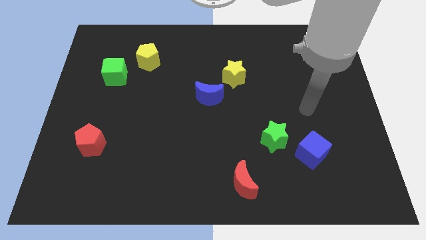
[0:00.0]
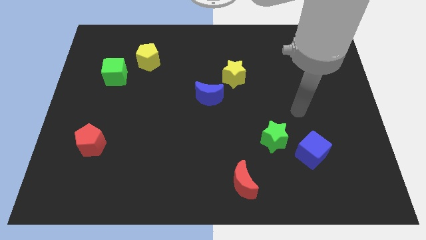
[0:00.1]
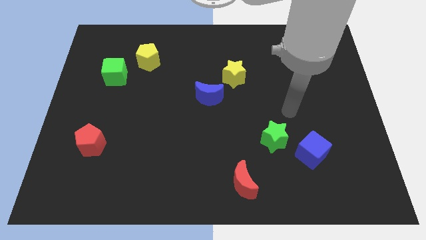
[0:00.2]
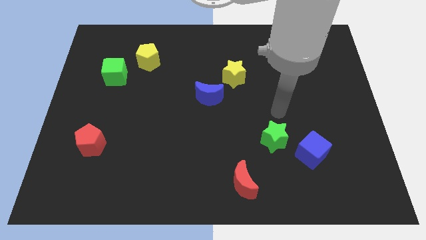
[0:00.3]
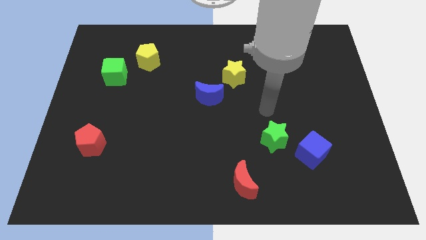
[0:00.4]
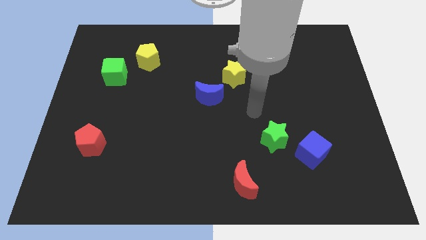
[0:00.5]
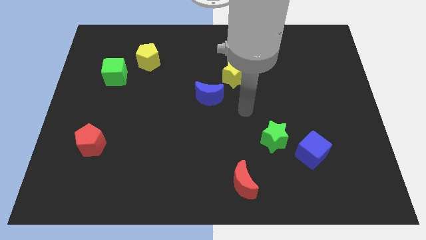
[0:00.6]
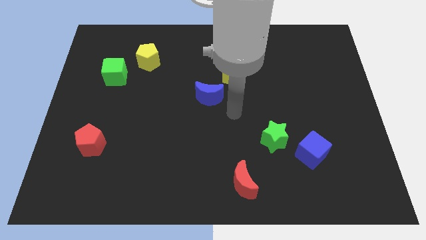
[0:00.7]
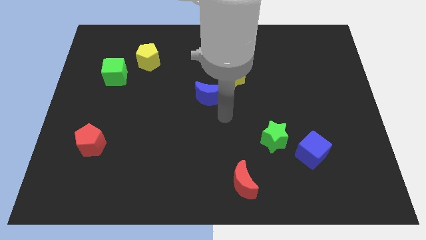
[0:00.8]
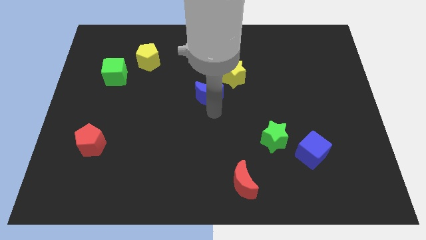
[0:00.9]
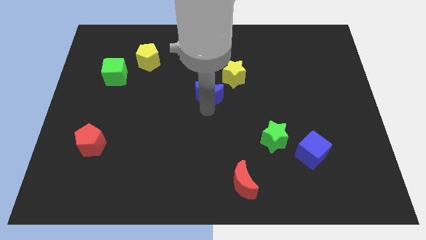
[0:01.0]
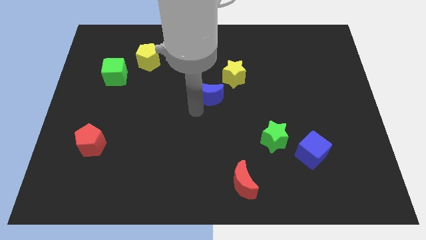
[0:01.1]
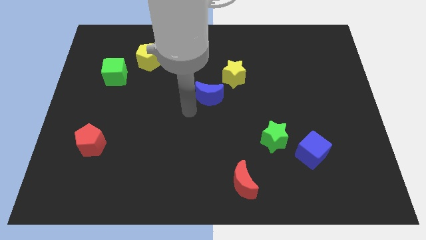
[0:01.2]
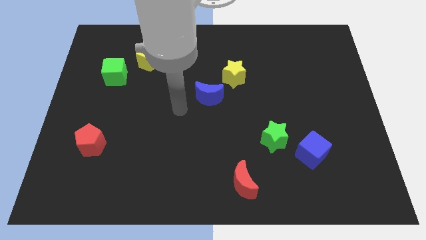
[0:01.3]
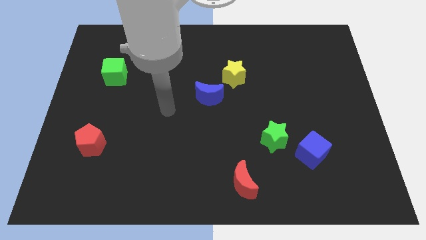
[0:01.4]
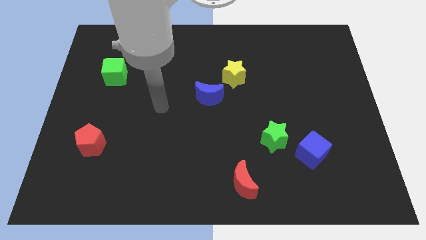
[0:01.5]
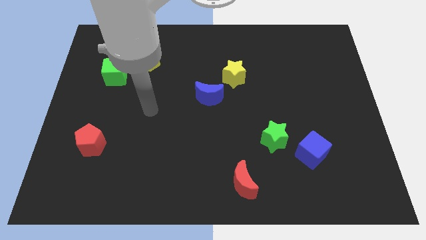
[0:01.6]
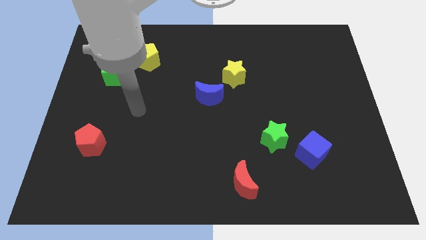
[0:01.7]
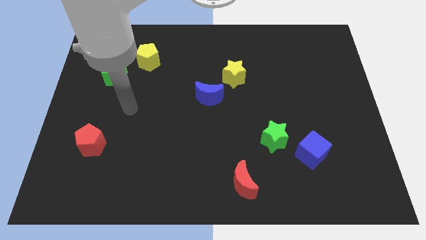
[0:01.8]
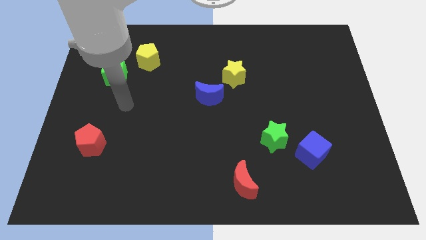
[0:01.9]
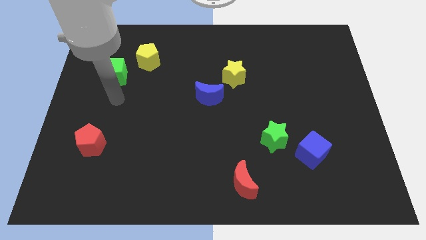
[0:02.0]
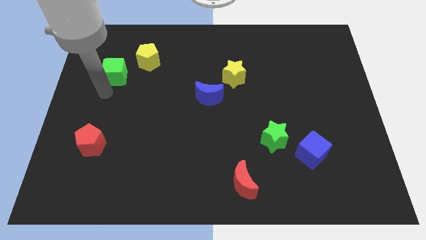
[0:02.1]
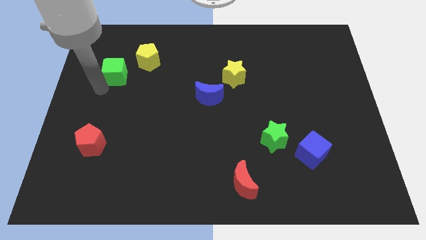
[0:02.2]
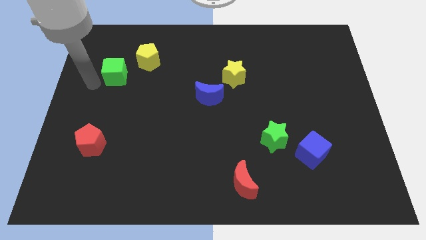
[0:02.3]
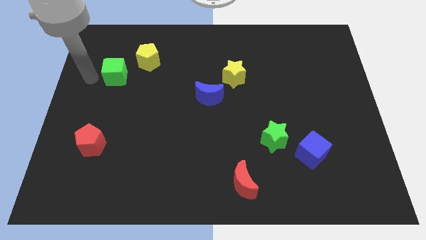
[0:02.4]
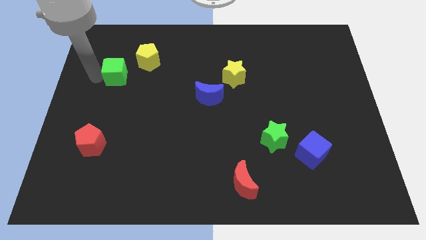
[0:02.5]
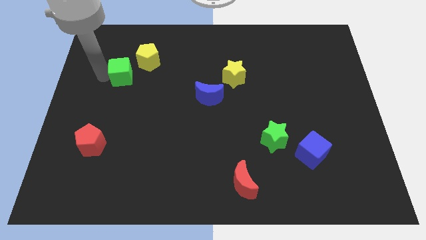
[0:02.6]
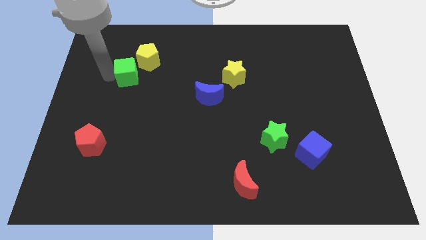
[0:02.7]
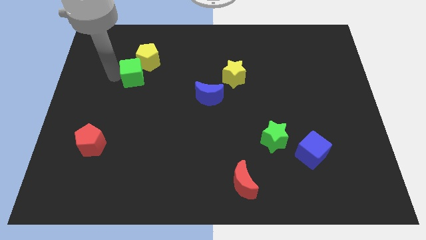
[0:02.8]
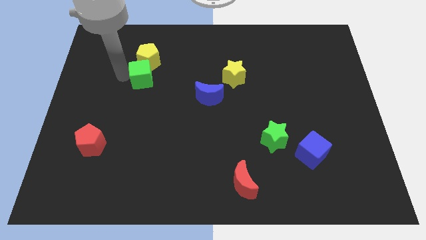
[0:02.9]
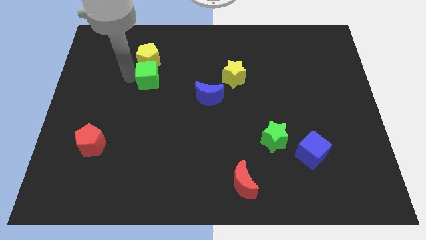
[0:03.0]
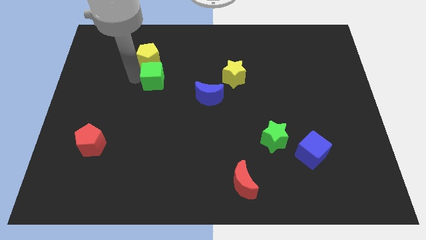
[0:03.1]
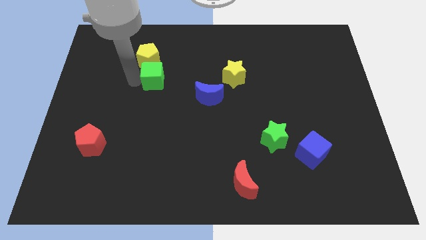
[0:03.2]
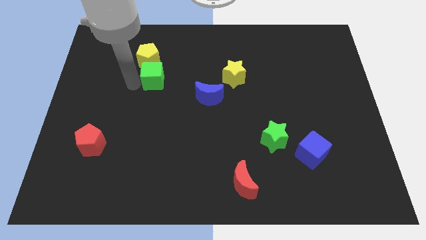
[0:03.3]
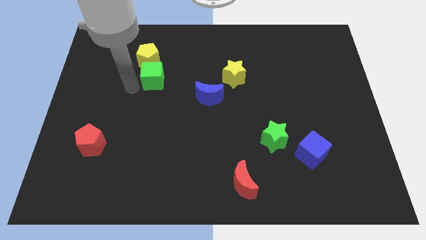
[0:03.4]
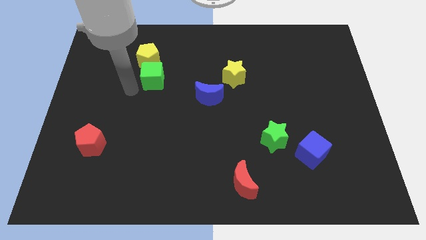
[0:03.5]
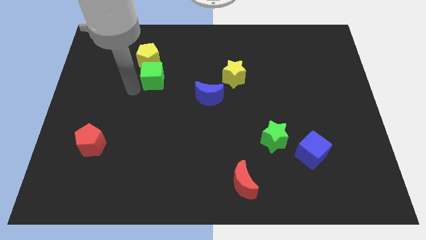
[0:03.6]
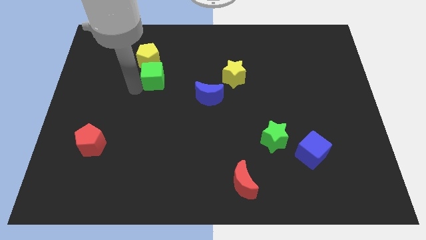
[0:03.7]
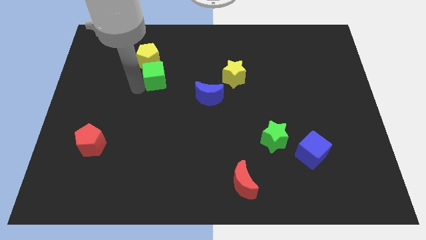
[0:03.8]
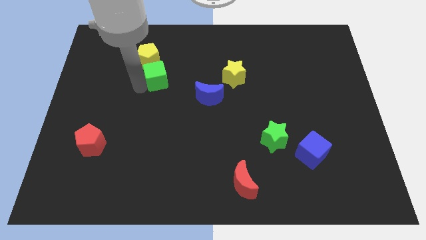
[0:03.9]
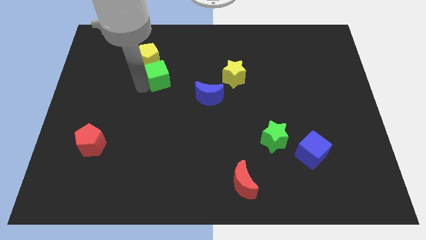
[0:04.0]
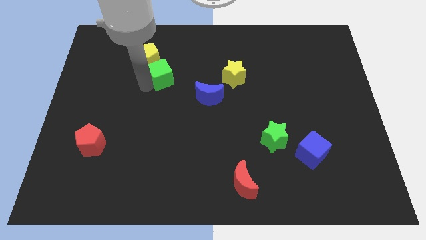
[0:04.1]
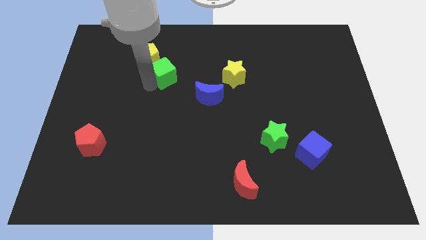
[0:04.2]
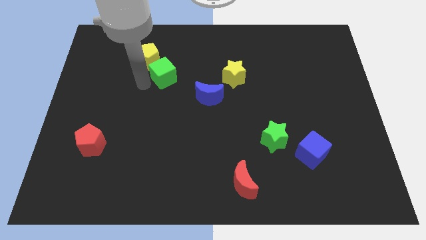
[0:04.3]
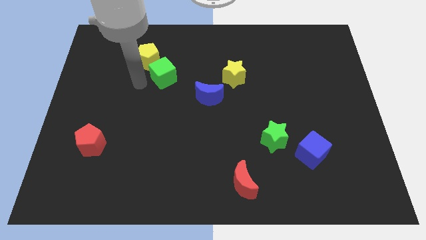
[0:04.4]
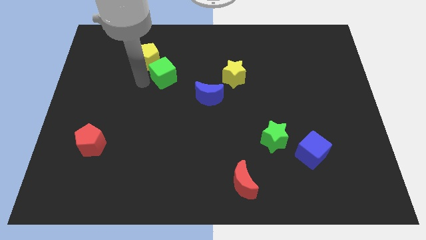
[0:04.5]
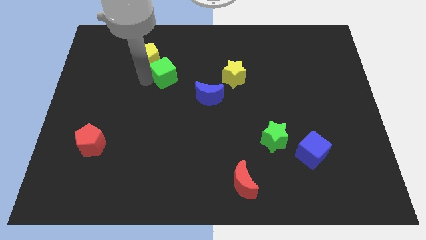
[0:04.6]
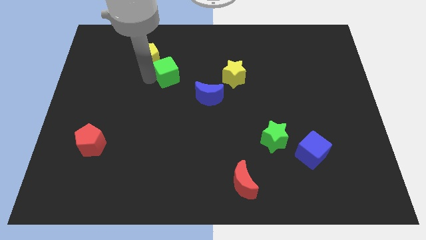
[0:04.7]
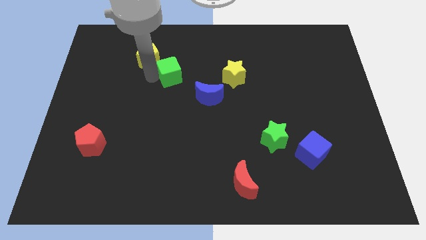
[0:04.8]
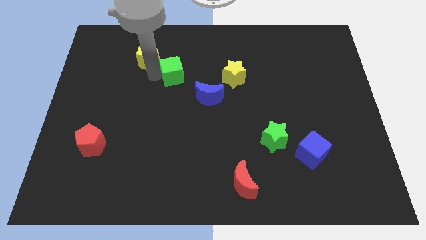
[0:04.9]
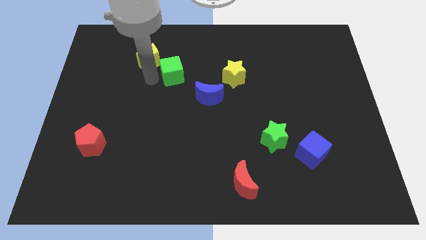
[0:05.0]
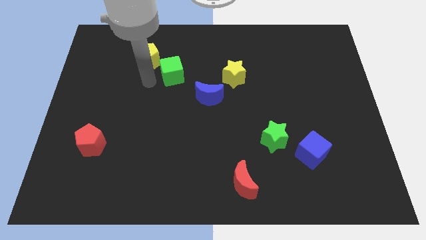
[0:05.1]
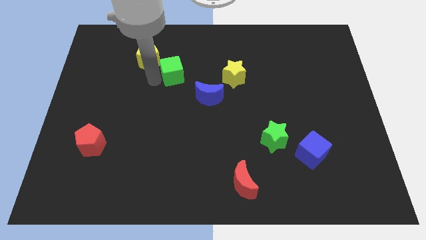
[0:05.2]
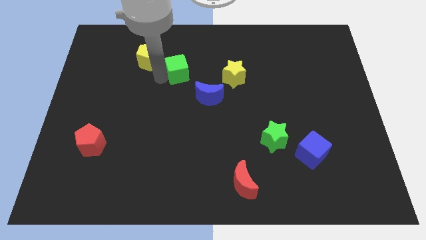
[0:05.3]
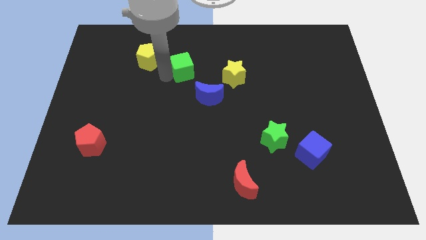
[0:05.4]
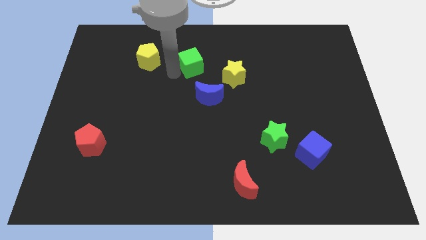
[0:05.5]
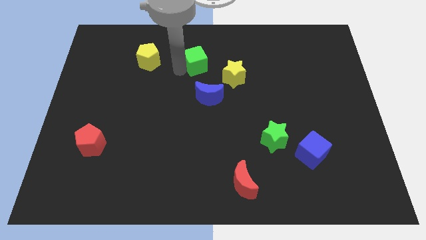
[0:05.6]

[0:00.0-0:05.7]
put the green cube diagonally up and to the left of the yellow star
